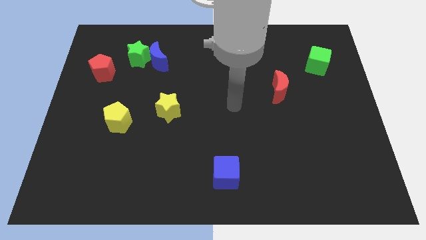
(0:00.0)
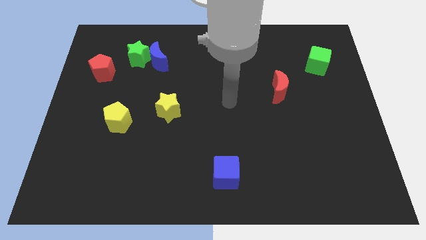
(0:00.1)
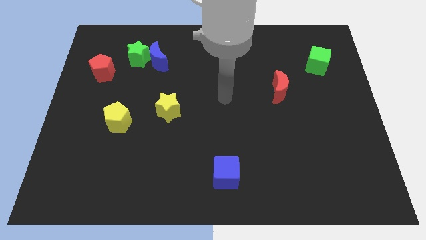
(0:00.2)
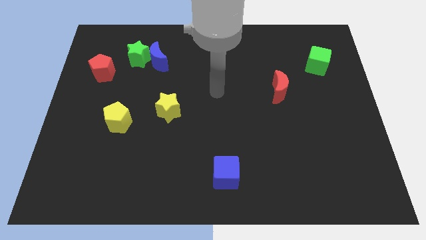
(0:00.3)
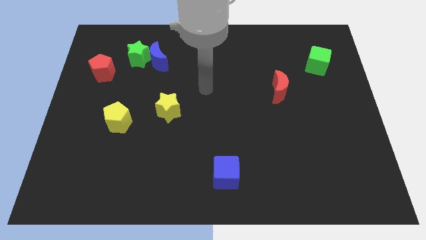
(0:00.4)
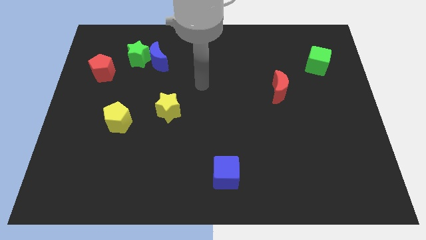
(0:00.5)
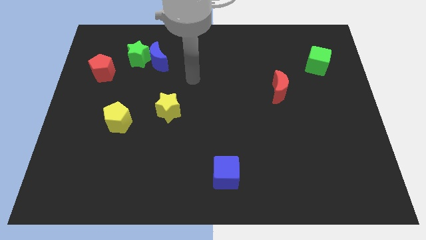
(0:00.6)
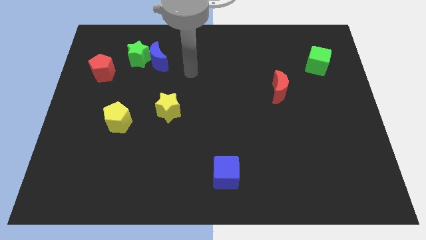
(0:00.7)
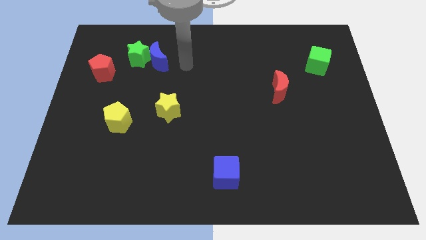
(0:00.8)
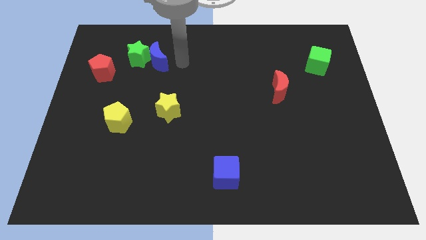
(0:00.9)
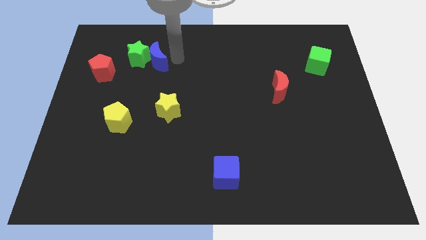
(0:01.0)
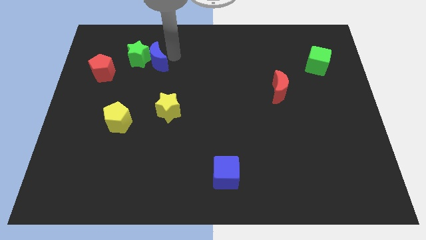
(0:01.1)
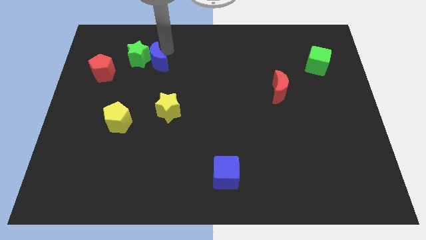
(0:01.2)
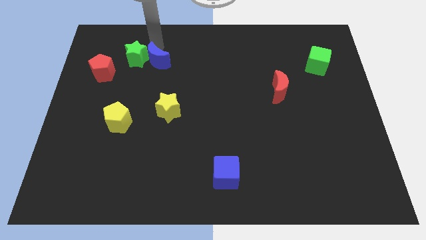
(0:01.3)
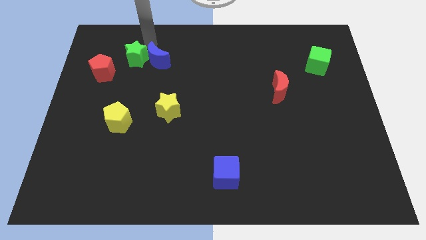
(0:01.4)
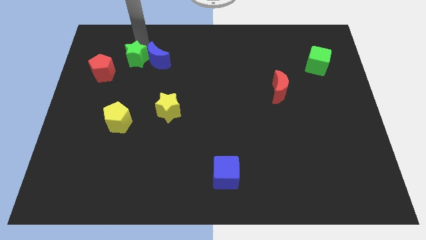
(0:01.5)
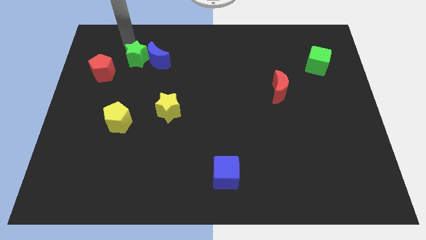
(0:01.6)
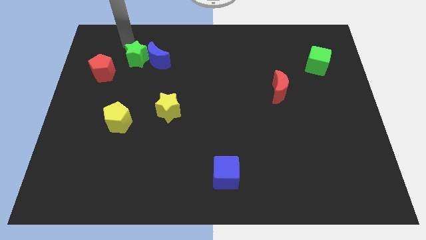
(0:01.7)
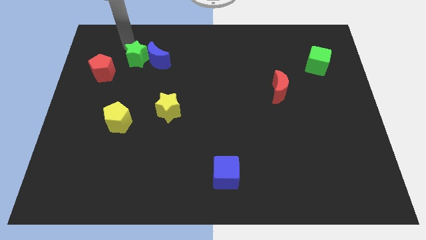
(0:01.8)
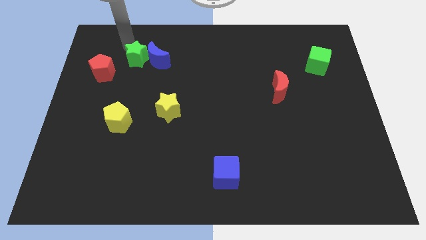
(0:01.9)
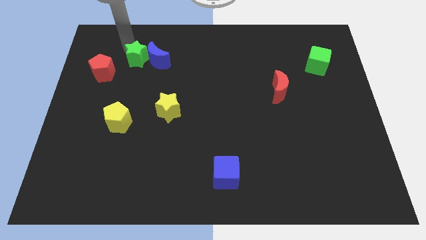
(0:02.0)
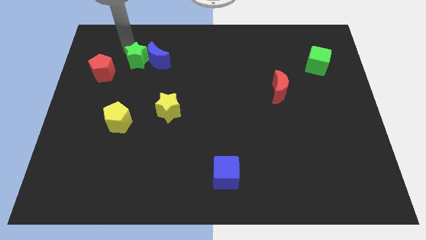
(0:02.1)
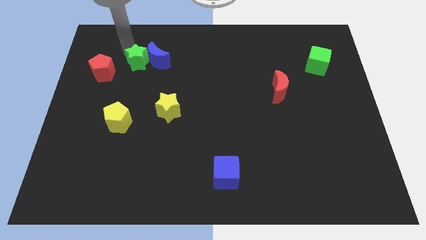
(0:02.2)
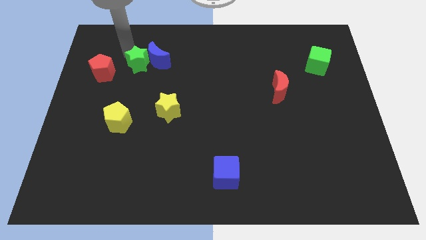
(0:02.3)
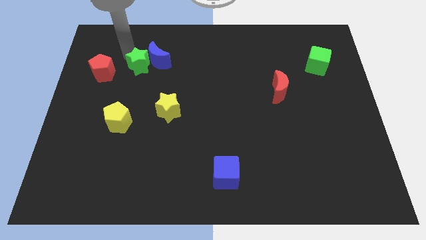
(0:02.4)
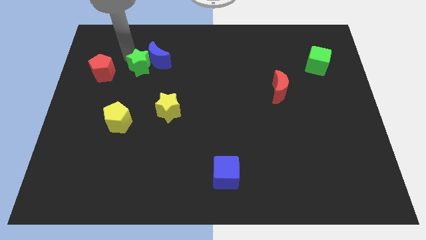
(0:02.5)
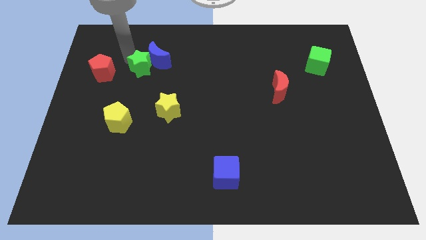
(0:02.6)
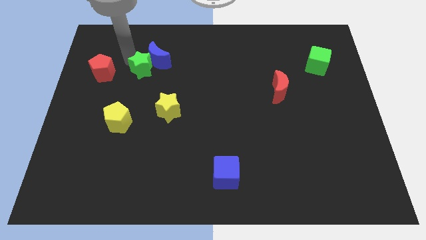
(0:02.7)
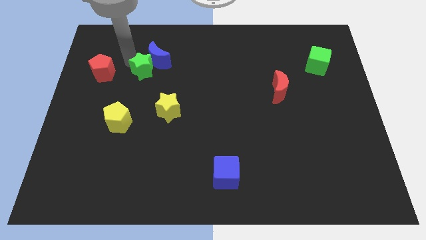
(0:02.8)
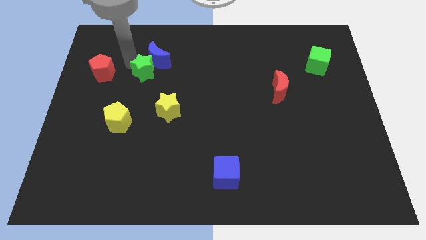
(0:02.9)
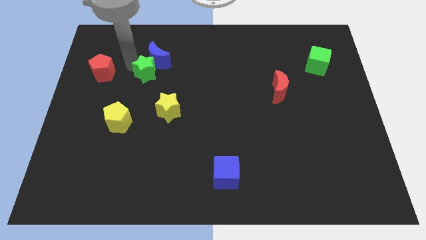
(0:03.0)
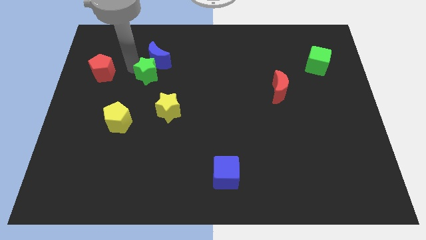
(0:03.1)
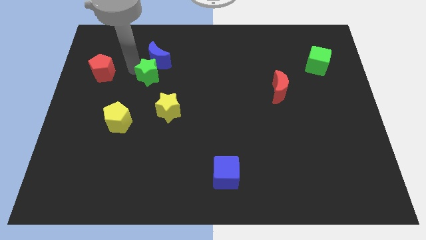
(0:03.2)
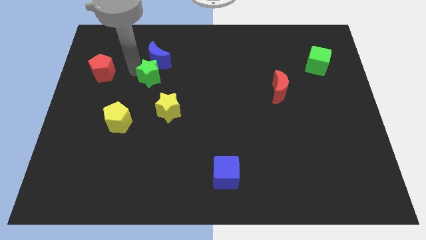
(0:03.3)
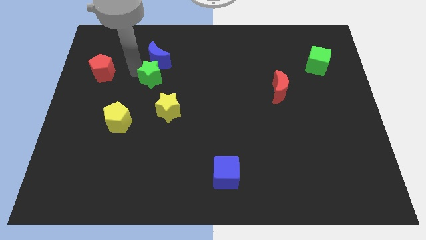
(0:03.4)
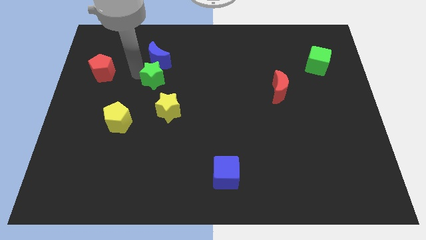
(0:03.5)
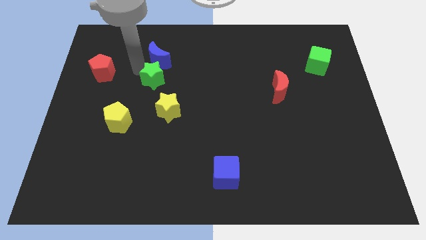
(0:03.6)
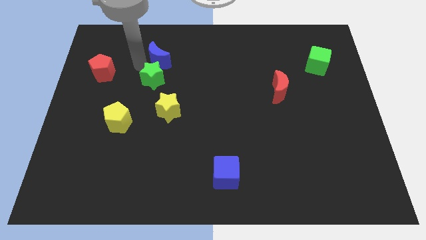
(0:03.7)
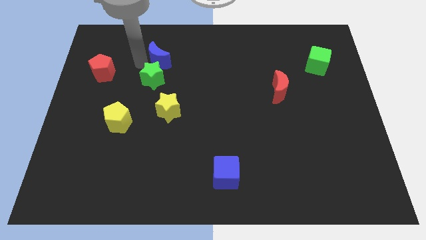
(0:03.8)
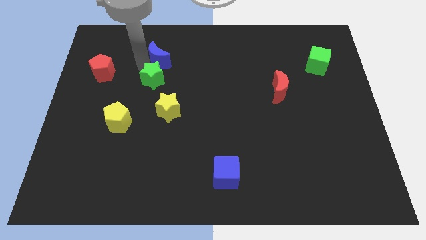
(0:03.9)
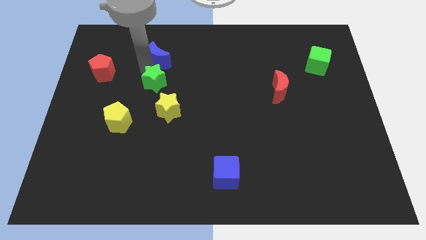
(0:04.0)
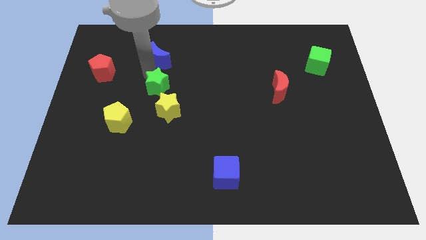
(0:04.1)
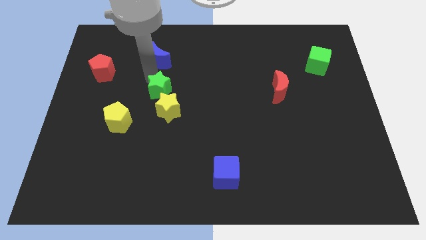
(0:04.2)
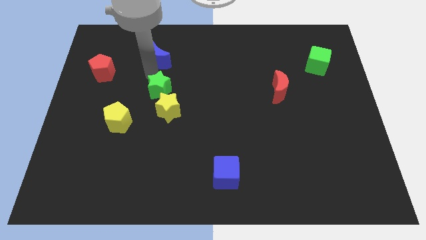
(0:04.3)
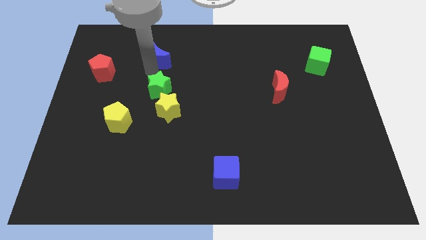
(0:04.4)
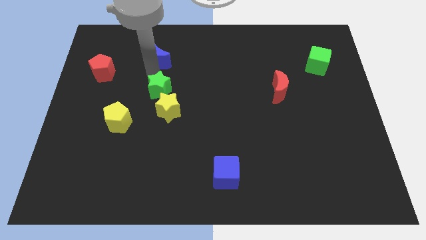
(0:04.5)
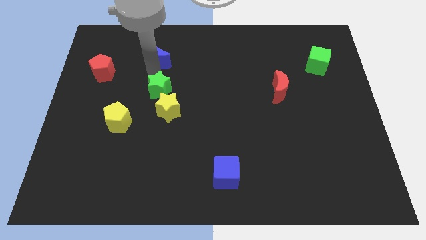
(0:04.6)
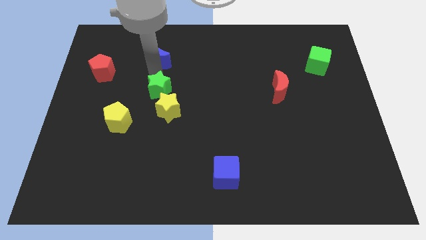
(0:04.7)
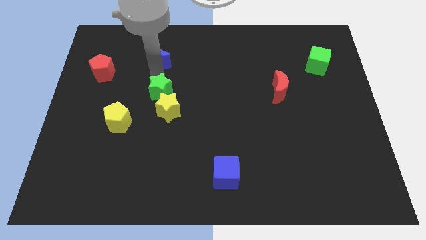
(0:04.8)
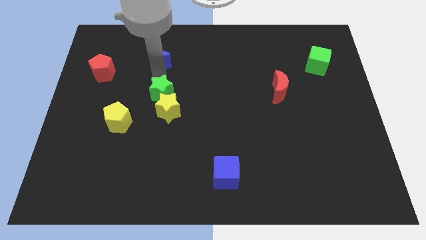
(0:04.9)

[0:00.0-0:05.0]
move the green star towards the yellow star

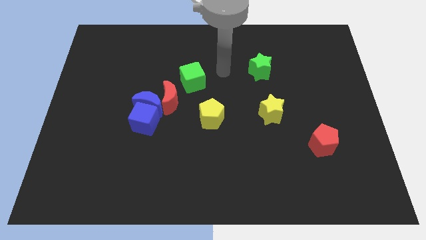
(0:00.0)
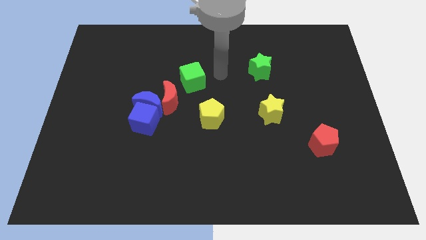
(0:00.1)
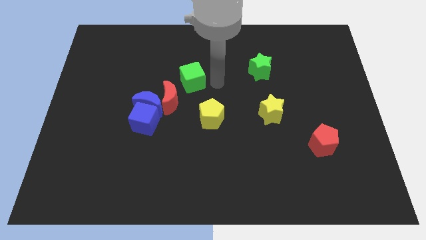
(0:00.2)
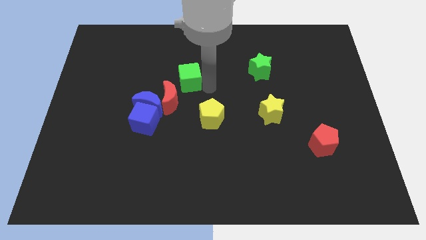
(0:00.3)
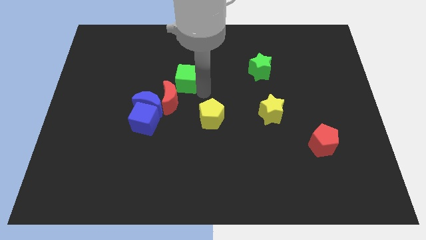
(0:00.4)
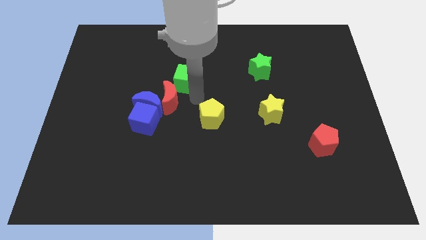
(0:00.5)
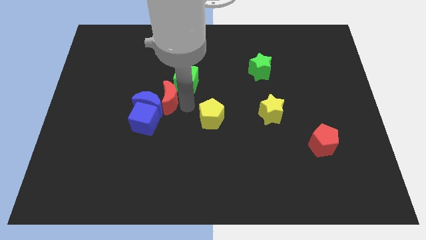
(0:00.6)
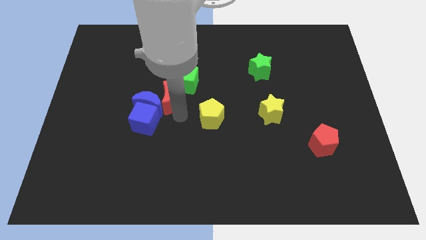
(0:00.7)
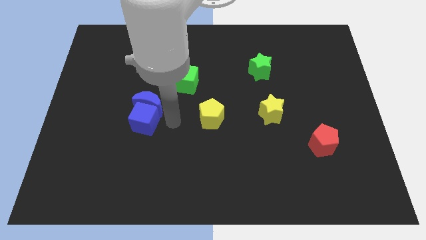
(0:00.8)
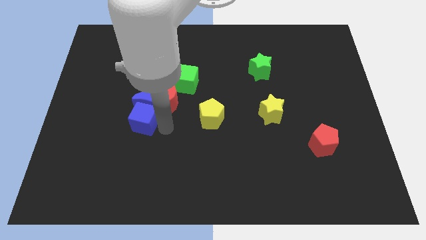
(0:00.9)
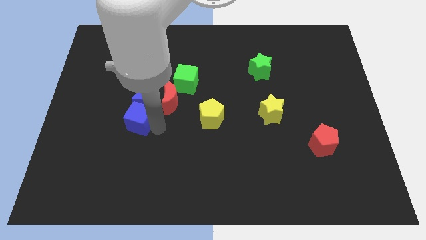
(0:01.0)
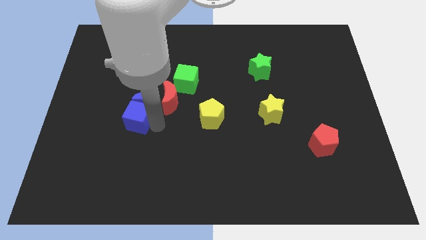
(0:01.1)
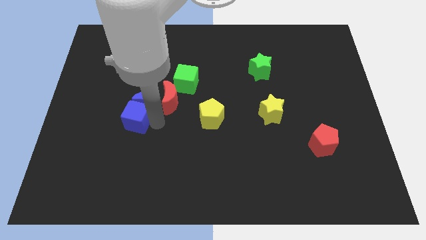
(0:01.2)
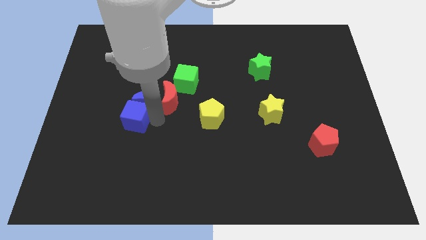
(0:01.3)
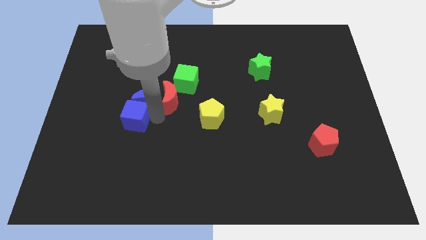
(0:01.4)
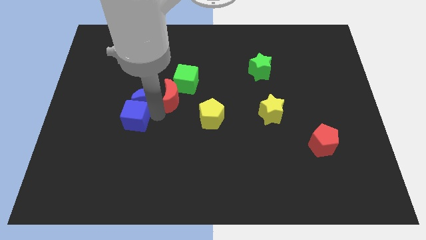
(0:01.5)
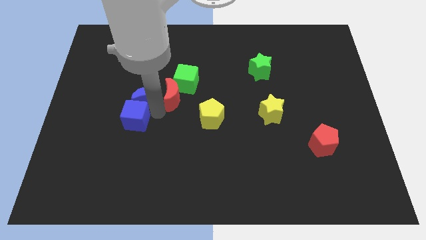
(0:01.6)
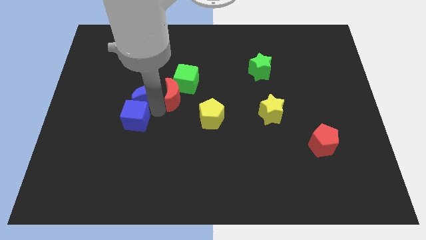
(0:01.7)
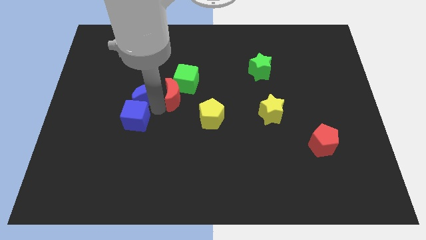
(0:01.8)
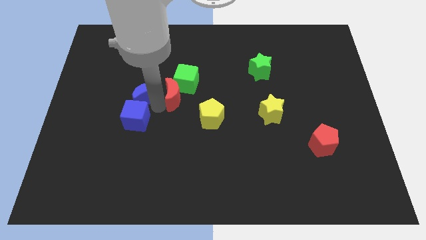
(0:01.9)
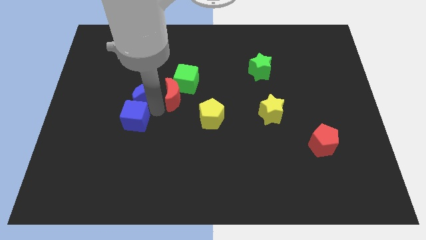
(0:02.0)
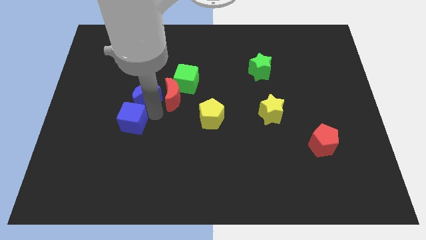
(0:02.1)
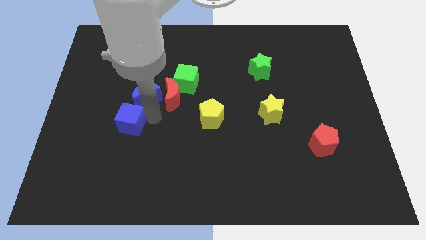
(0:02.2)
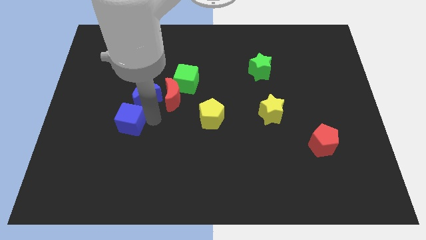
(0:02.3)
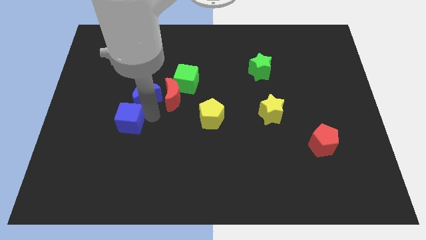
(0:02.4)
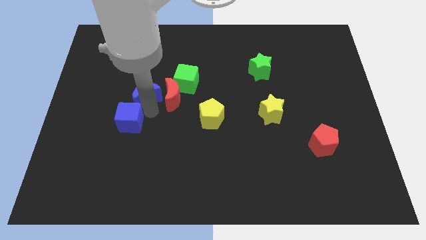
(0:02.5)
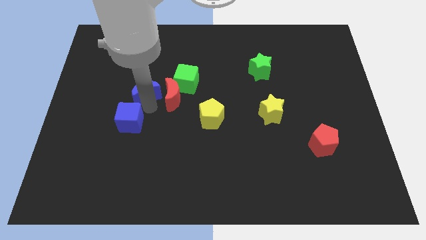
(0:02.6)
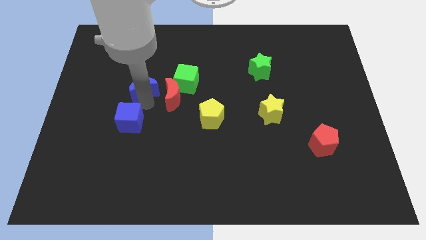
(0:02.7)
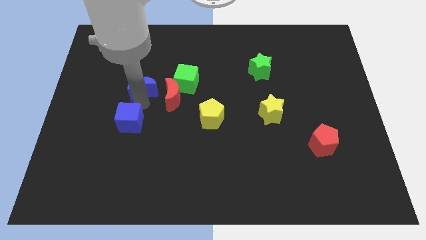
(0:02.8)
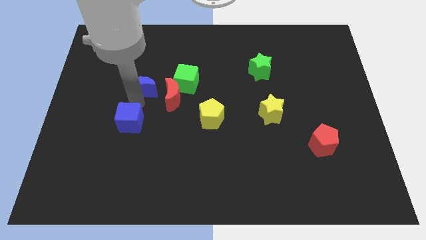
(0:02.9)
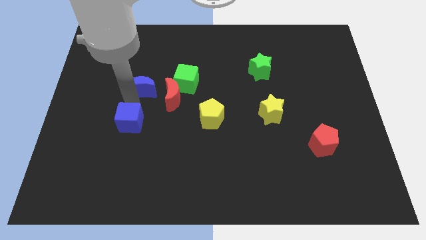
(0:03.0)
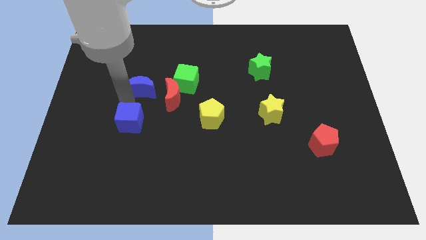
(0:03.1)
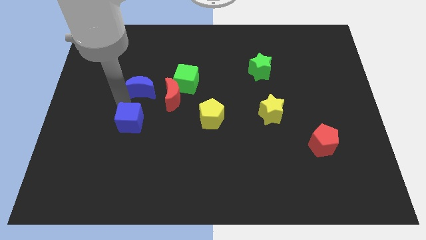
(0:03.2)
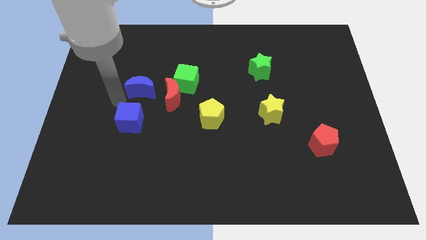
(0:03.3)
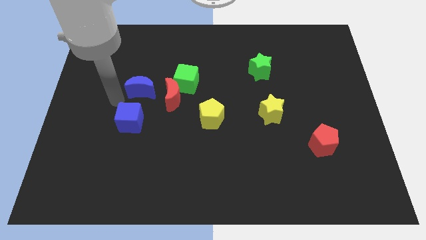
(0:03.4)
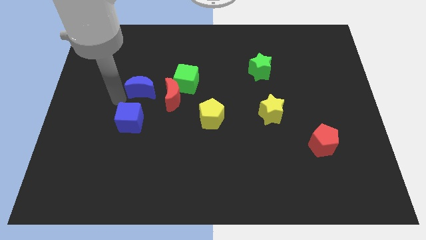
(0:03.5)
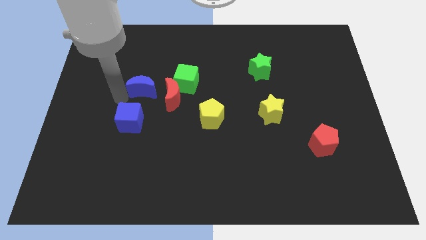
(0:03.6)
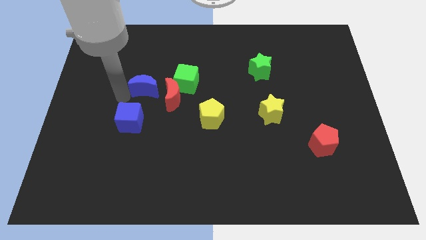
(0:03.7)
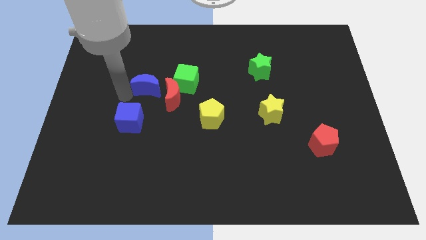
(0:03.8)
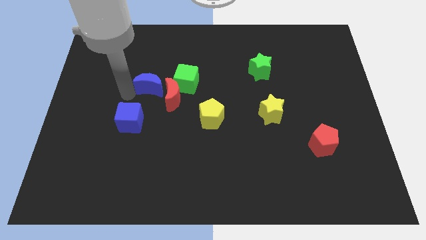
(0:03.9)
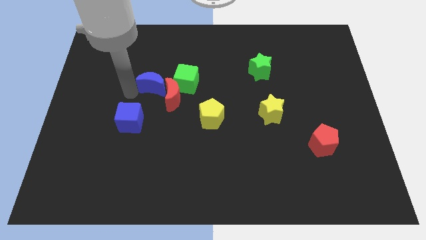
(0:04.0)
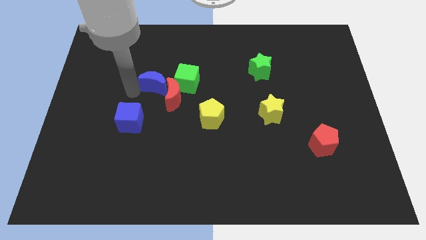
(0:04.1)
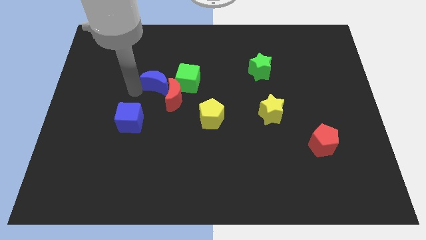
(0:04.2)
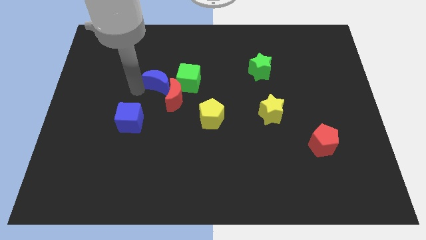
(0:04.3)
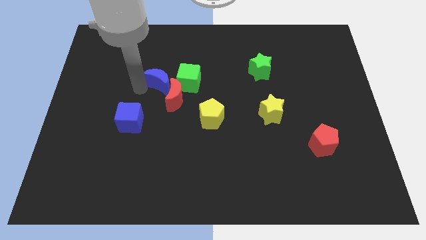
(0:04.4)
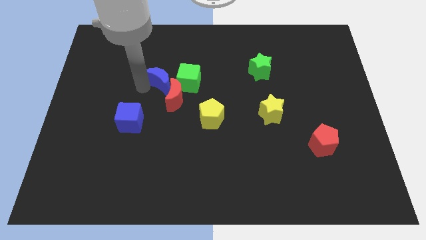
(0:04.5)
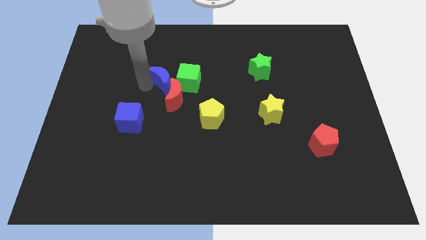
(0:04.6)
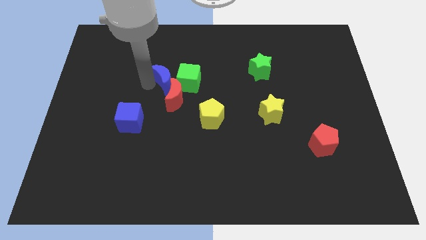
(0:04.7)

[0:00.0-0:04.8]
put the blue moon to the green cube
